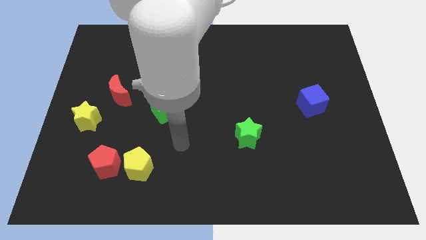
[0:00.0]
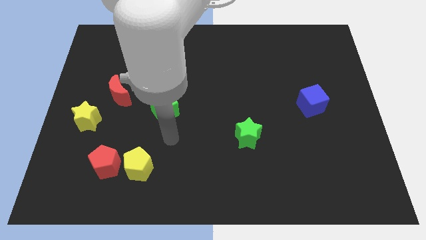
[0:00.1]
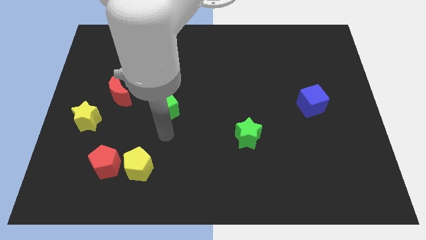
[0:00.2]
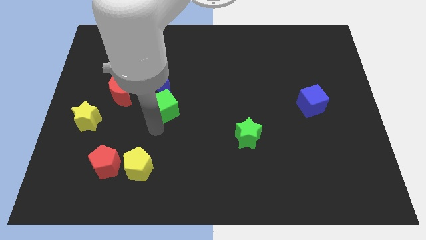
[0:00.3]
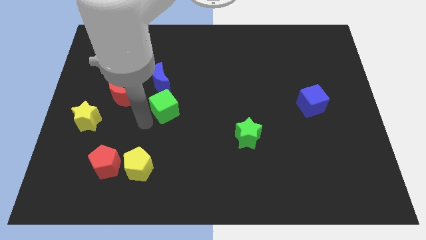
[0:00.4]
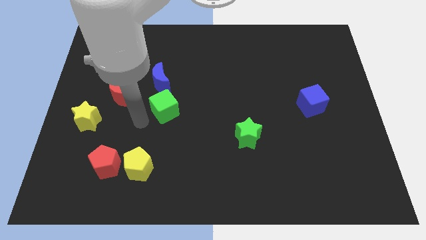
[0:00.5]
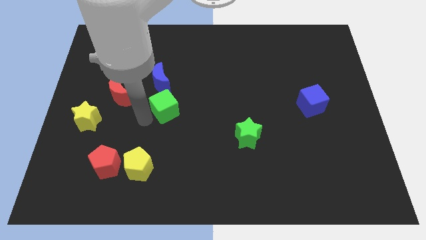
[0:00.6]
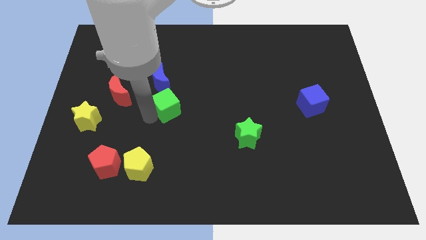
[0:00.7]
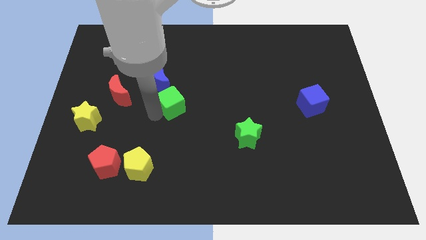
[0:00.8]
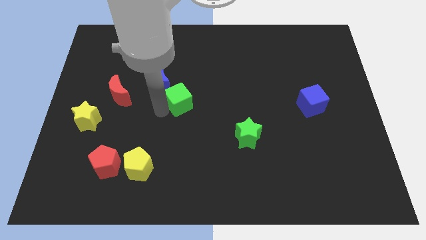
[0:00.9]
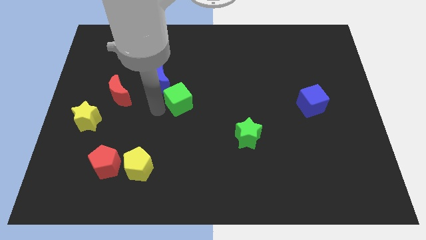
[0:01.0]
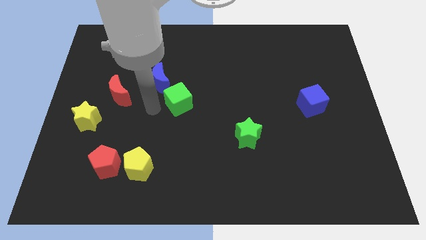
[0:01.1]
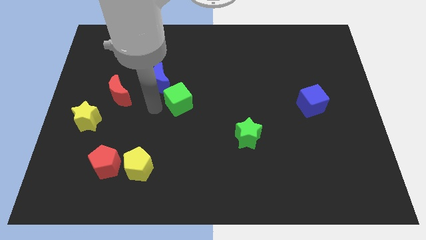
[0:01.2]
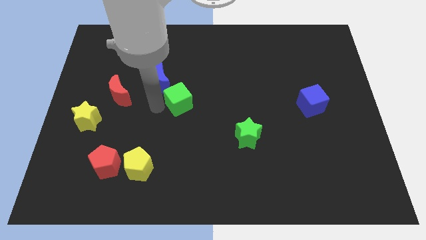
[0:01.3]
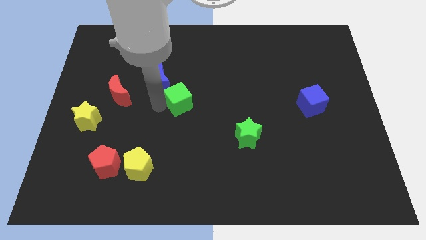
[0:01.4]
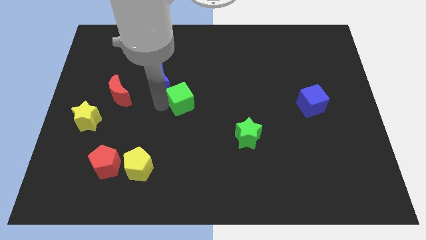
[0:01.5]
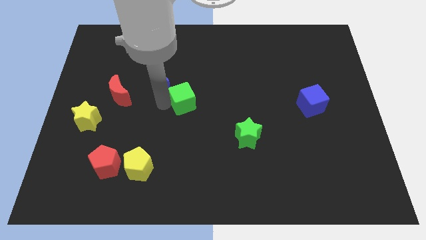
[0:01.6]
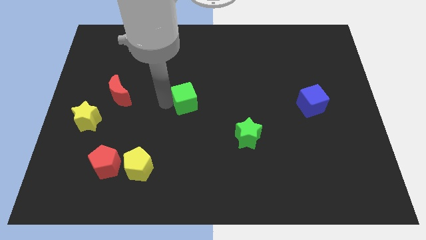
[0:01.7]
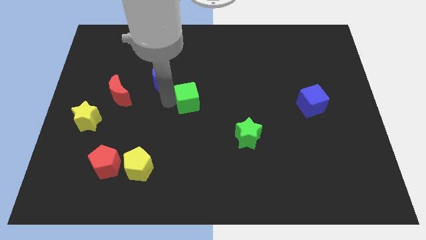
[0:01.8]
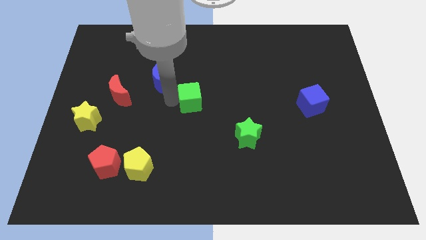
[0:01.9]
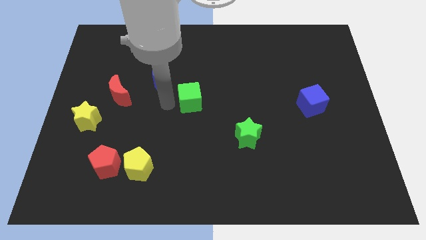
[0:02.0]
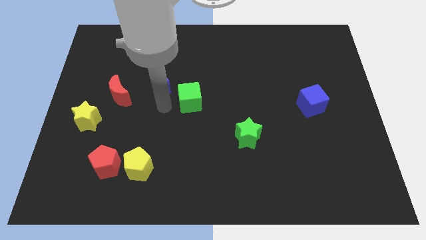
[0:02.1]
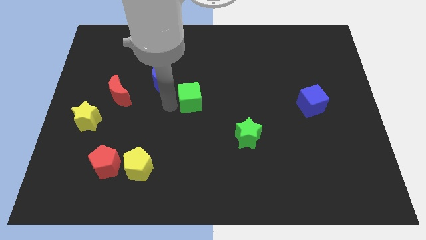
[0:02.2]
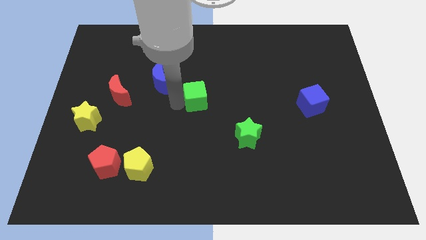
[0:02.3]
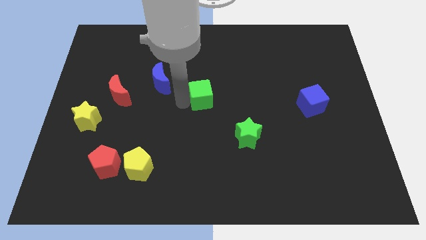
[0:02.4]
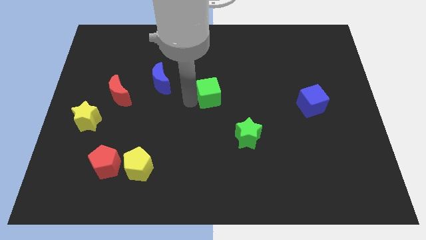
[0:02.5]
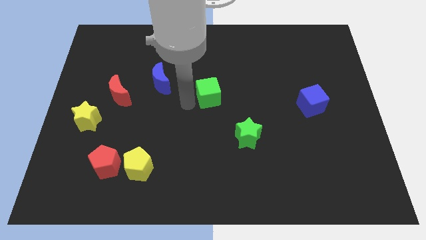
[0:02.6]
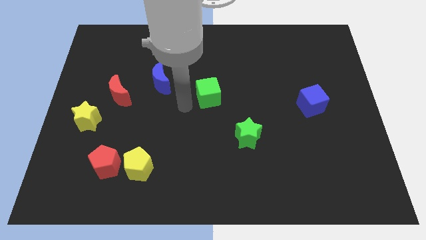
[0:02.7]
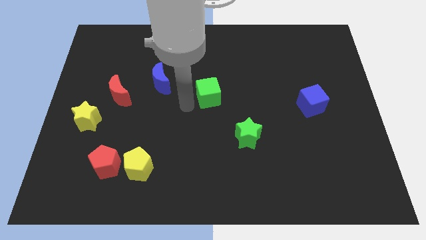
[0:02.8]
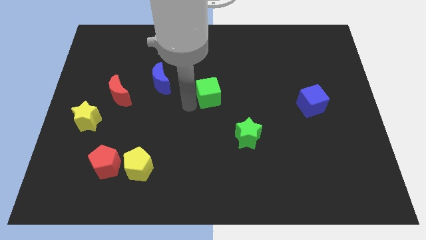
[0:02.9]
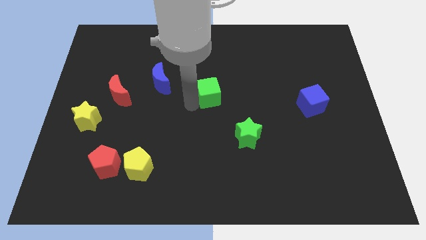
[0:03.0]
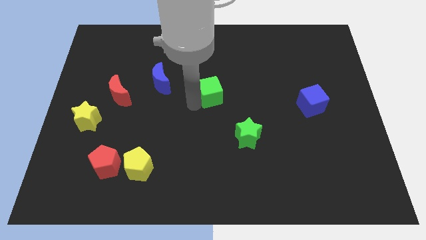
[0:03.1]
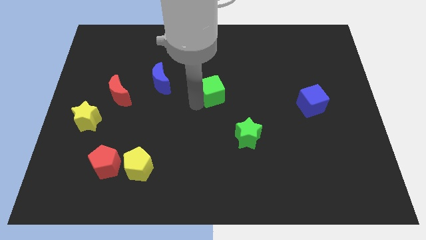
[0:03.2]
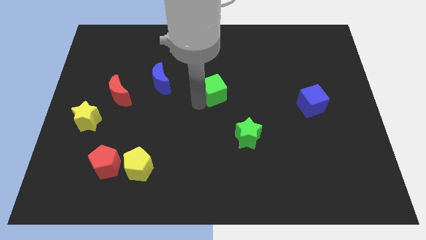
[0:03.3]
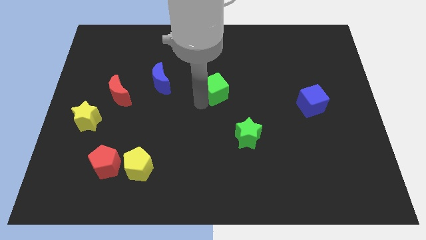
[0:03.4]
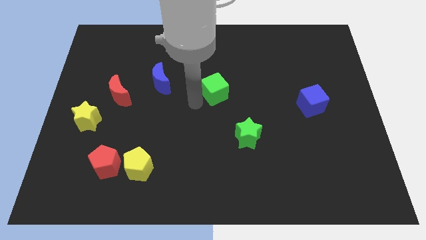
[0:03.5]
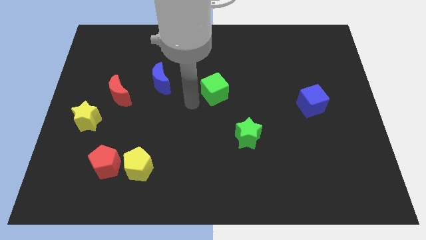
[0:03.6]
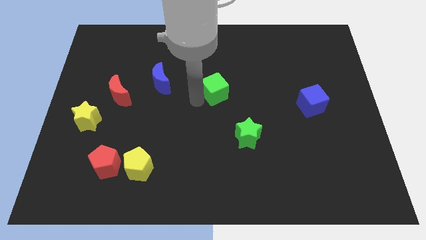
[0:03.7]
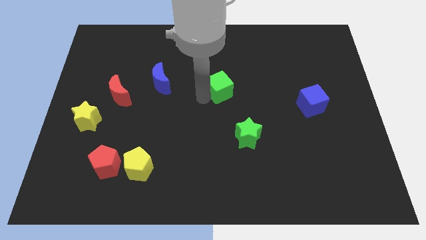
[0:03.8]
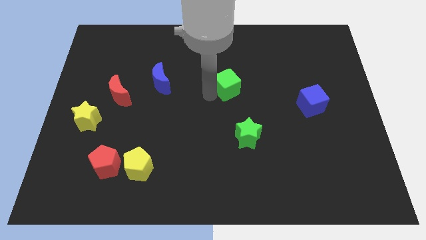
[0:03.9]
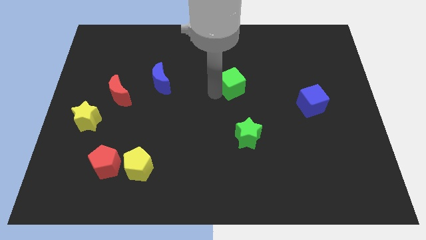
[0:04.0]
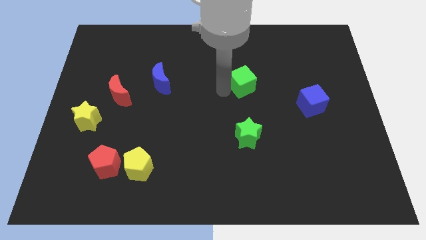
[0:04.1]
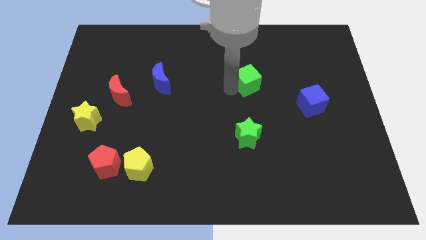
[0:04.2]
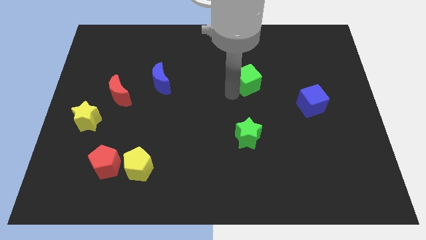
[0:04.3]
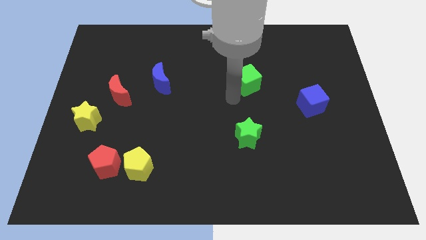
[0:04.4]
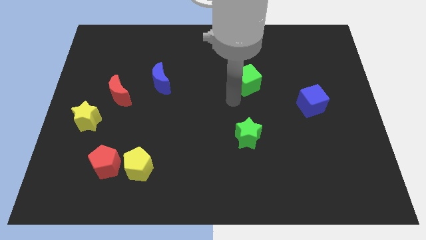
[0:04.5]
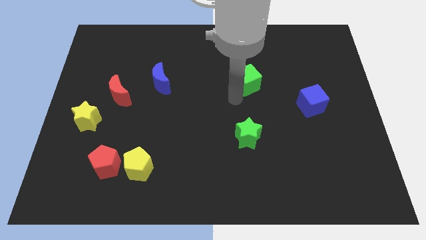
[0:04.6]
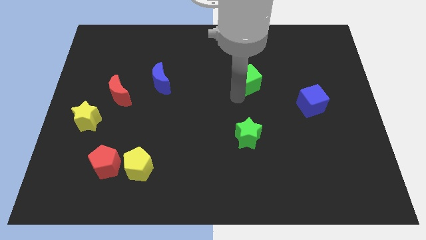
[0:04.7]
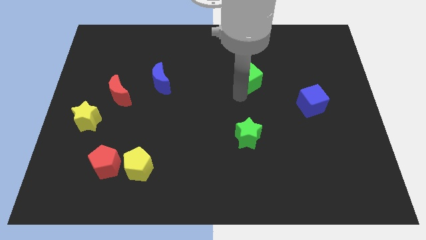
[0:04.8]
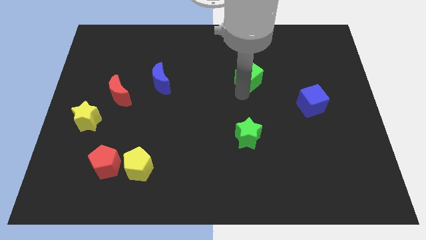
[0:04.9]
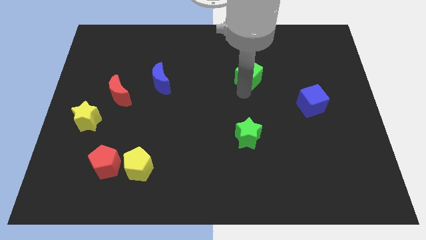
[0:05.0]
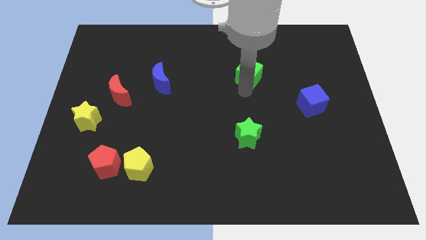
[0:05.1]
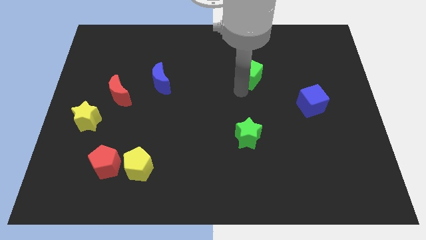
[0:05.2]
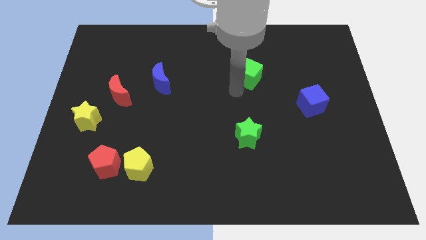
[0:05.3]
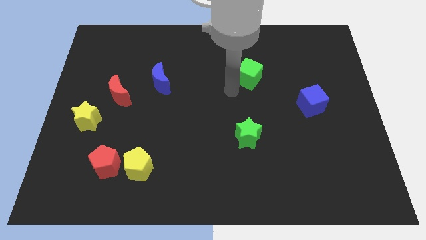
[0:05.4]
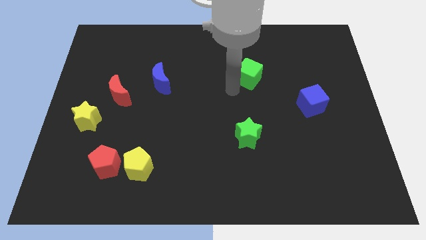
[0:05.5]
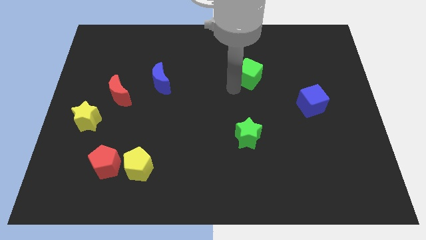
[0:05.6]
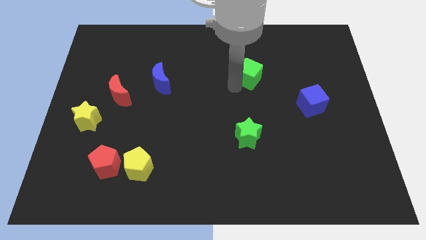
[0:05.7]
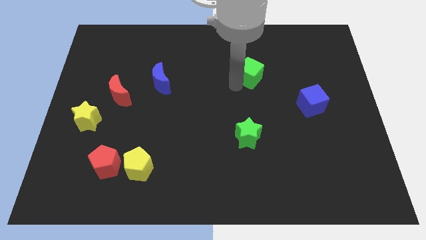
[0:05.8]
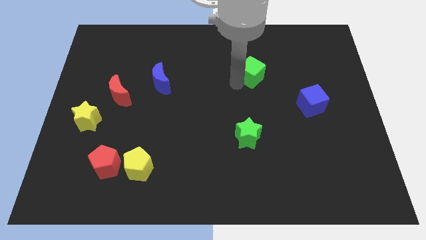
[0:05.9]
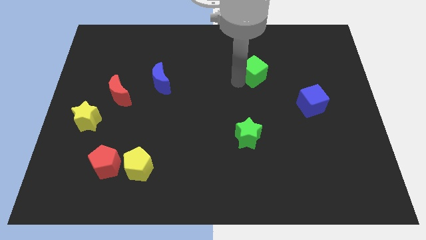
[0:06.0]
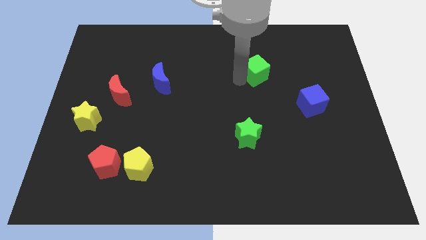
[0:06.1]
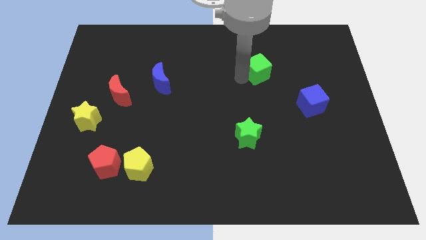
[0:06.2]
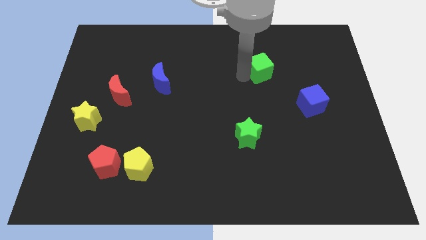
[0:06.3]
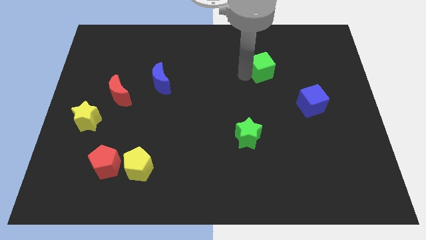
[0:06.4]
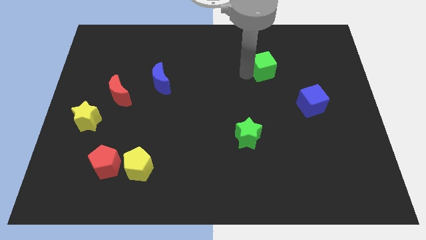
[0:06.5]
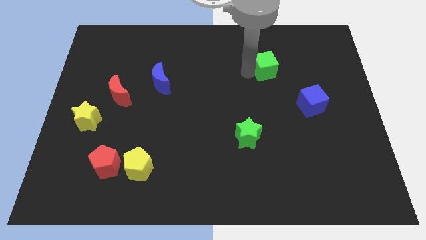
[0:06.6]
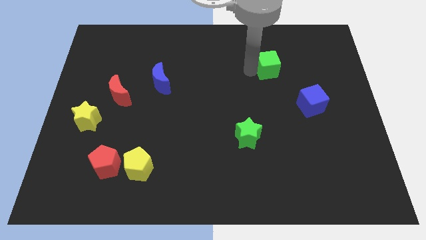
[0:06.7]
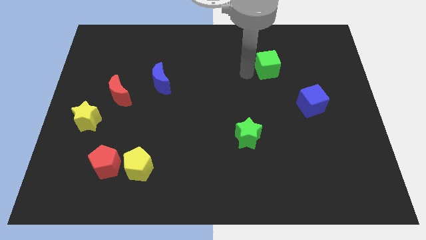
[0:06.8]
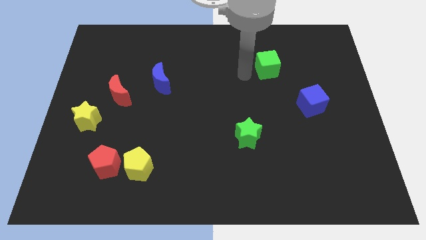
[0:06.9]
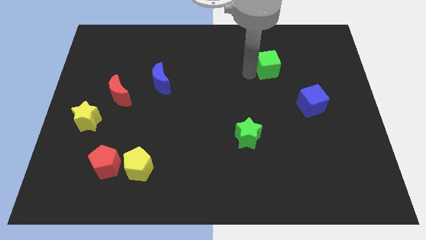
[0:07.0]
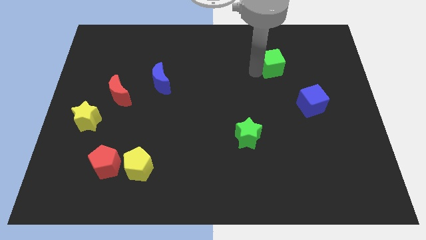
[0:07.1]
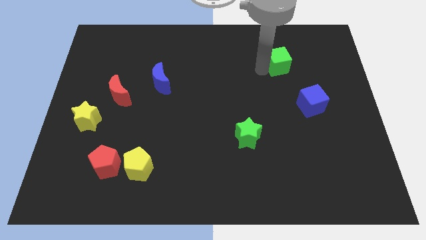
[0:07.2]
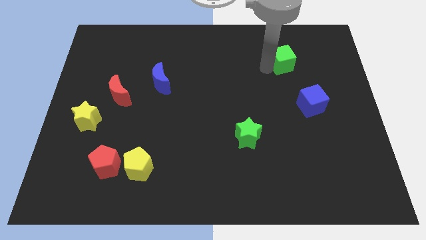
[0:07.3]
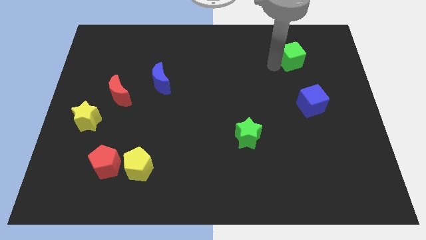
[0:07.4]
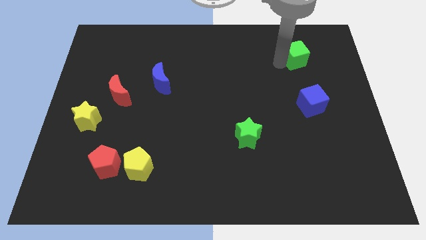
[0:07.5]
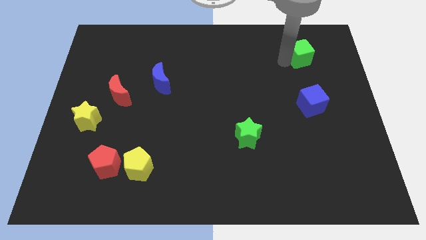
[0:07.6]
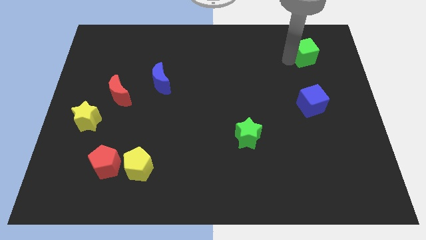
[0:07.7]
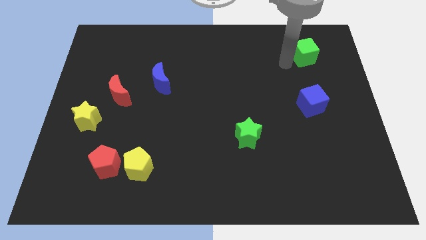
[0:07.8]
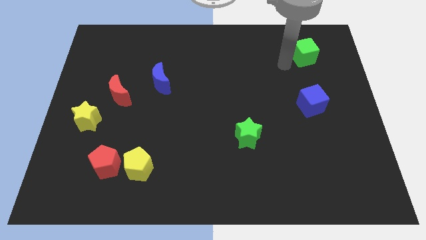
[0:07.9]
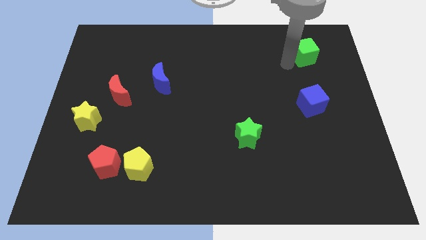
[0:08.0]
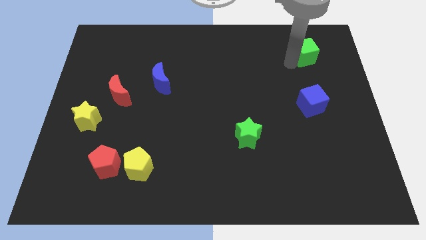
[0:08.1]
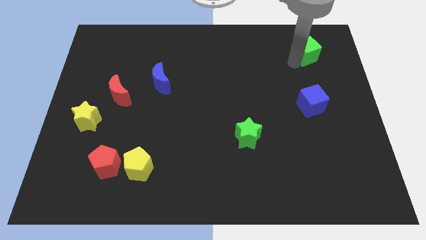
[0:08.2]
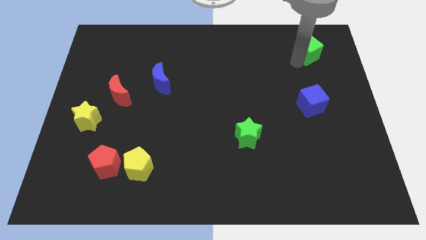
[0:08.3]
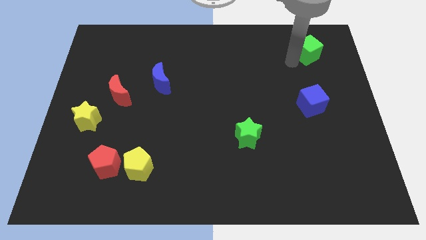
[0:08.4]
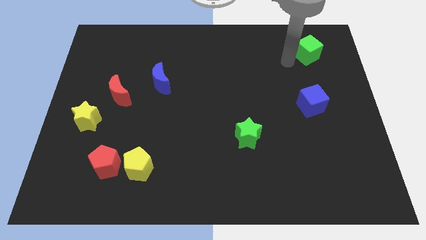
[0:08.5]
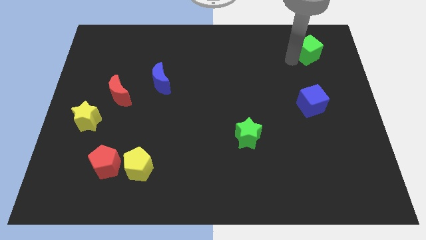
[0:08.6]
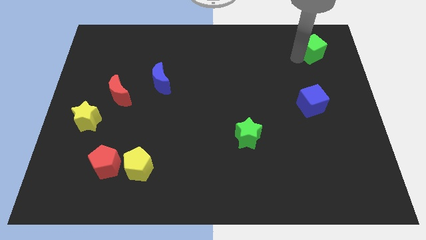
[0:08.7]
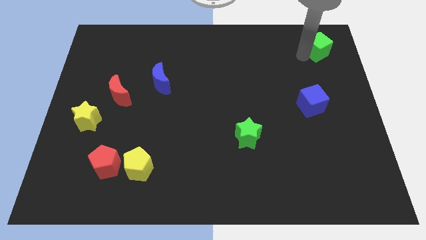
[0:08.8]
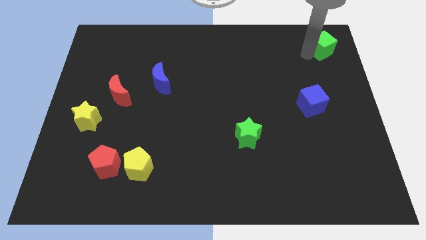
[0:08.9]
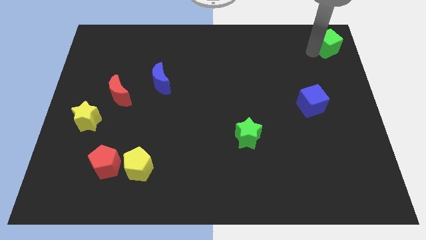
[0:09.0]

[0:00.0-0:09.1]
move the green cube to the top right of the board
